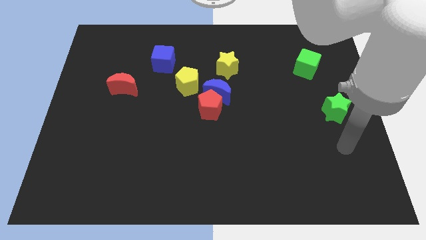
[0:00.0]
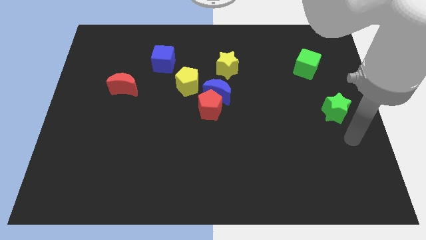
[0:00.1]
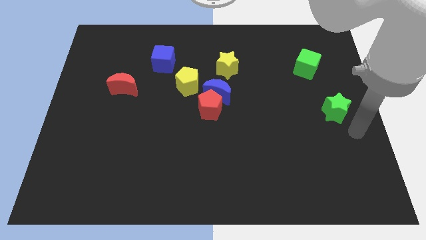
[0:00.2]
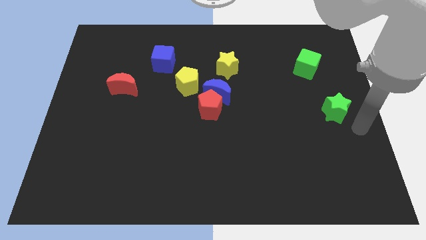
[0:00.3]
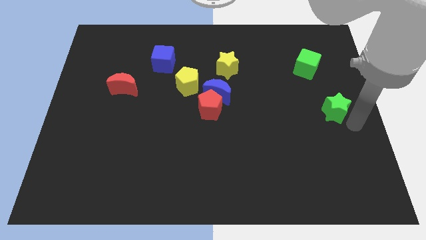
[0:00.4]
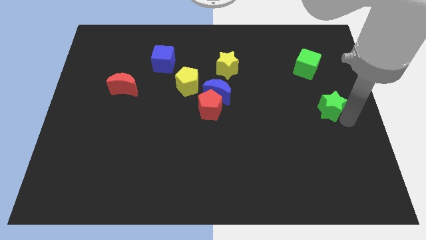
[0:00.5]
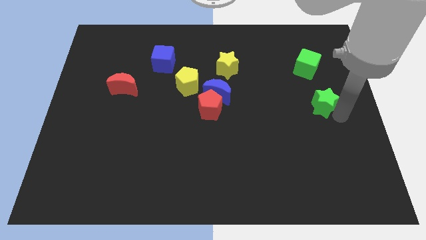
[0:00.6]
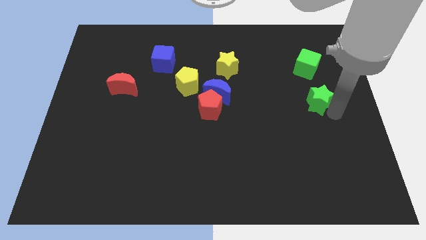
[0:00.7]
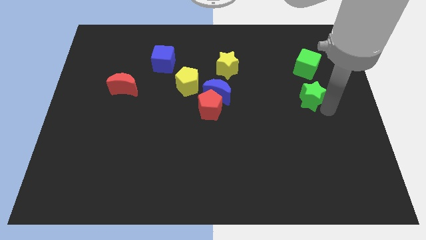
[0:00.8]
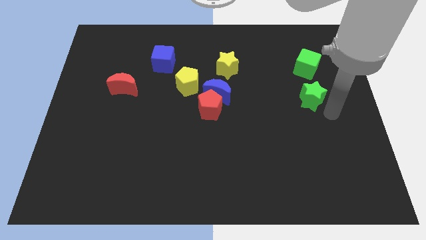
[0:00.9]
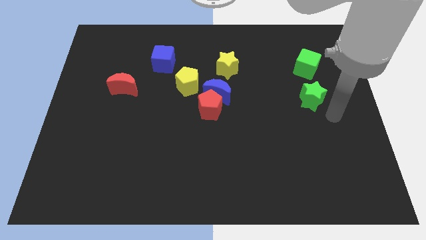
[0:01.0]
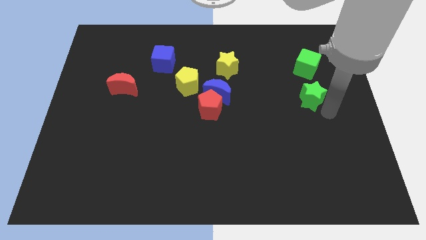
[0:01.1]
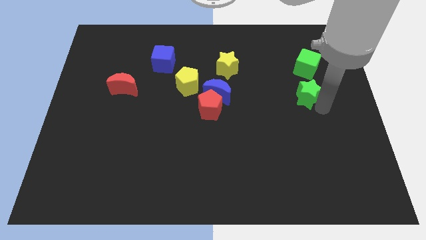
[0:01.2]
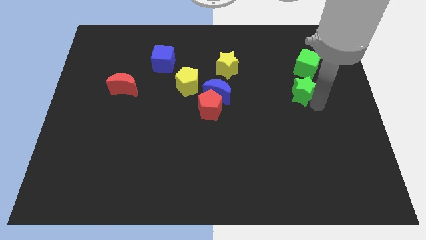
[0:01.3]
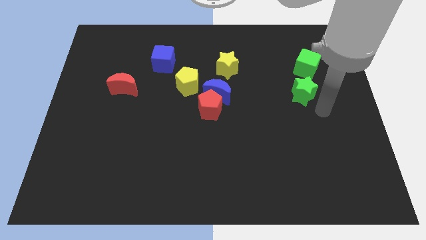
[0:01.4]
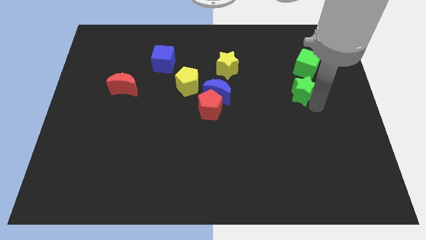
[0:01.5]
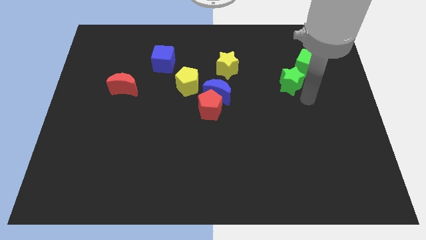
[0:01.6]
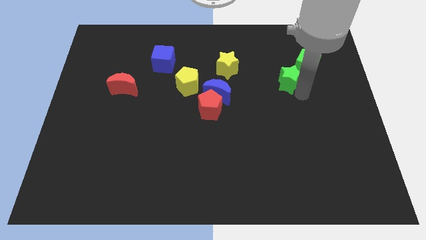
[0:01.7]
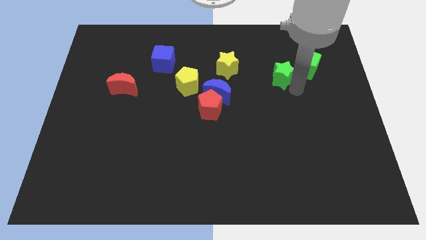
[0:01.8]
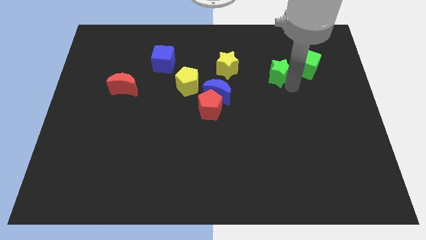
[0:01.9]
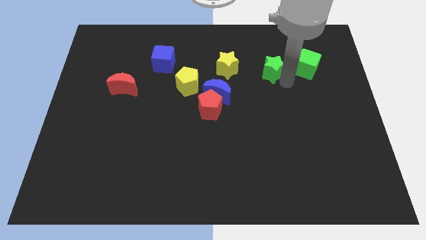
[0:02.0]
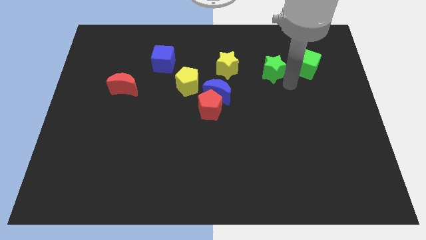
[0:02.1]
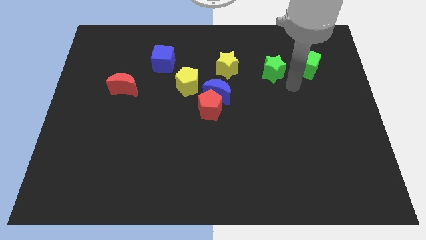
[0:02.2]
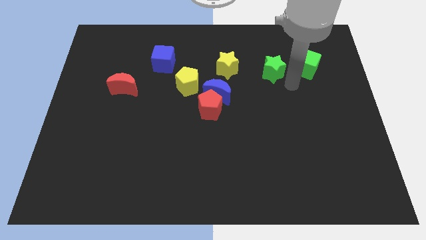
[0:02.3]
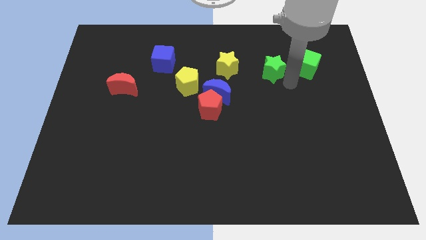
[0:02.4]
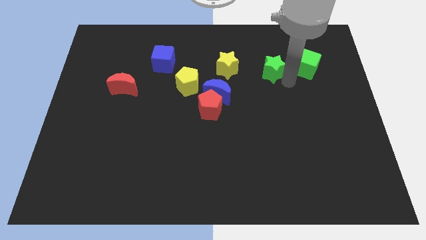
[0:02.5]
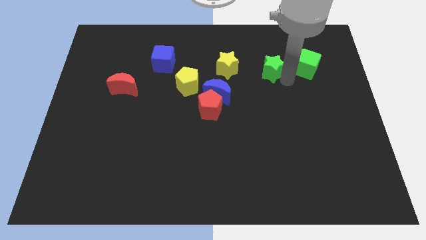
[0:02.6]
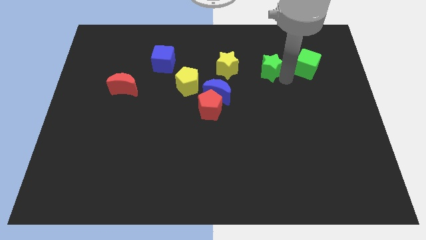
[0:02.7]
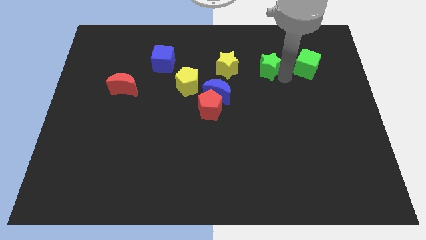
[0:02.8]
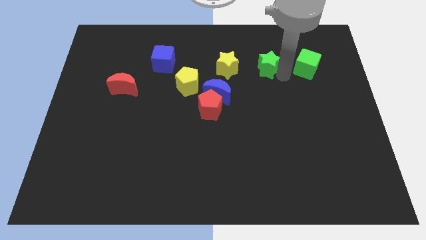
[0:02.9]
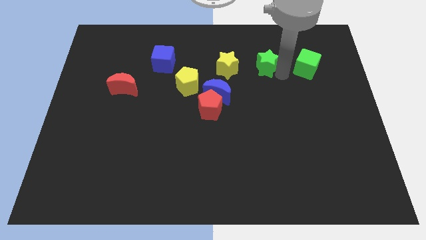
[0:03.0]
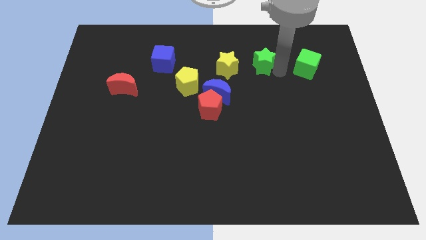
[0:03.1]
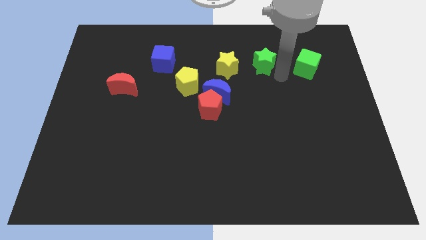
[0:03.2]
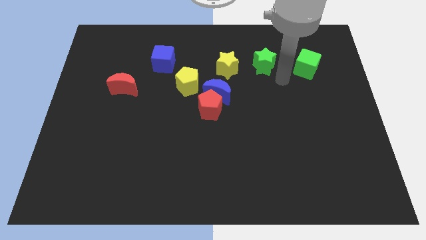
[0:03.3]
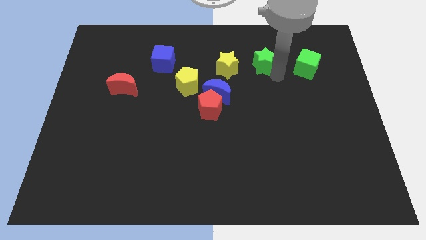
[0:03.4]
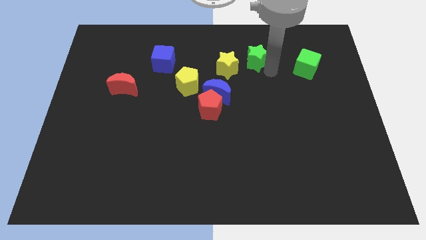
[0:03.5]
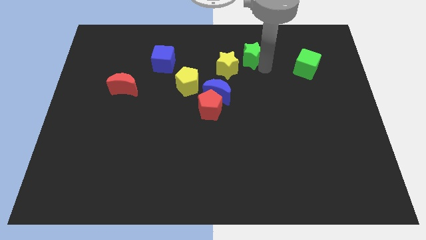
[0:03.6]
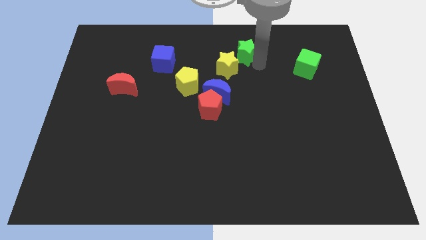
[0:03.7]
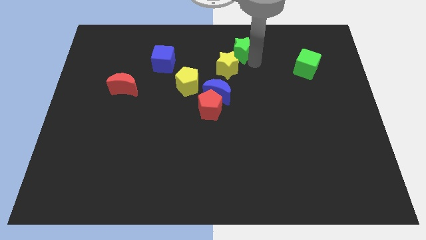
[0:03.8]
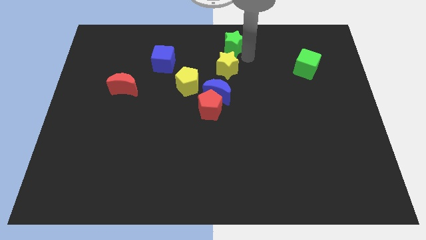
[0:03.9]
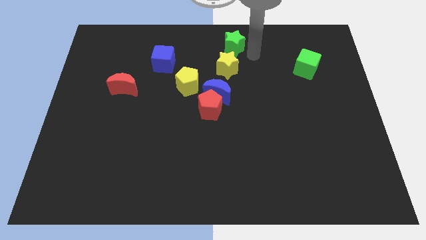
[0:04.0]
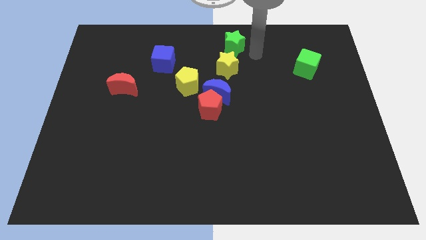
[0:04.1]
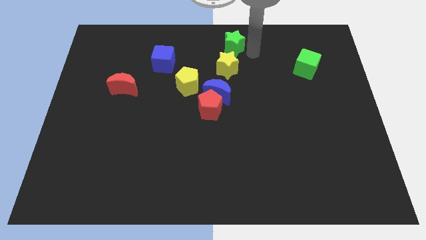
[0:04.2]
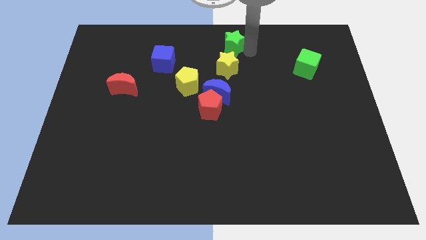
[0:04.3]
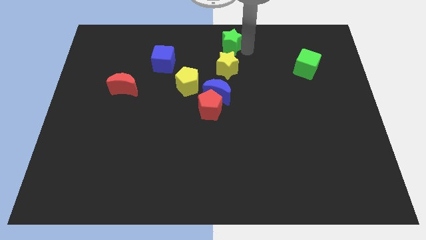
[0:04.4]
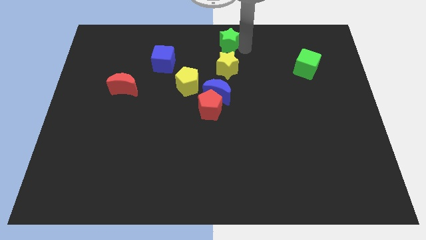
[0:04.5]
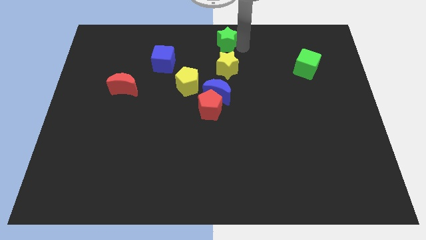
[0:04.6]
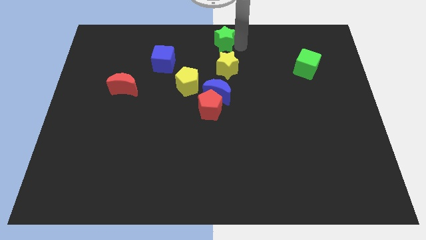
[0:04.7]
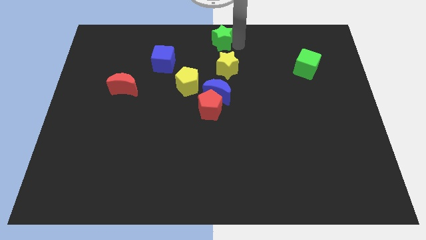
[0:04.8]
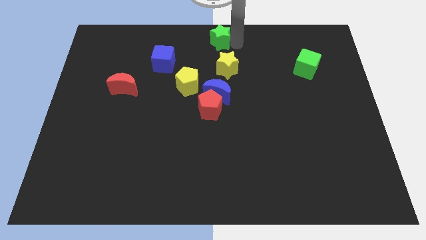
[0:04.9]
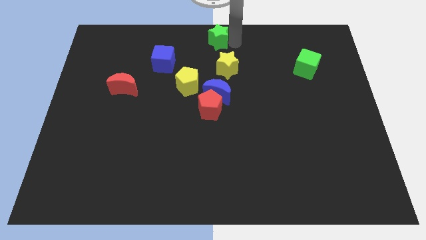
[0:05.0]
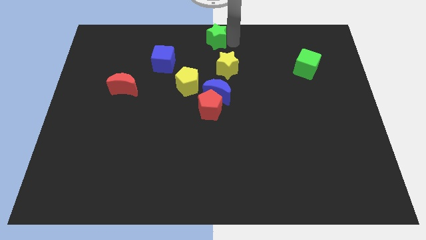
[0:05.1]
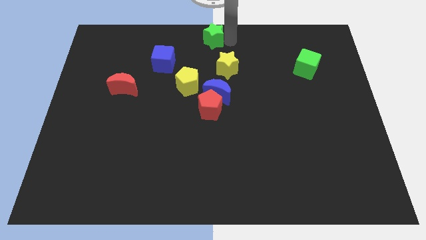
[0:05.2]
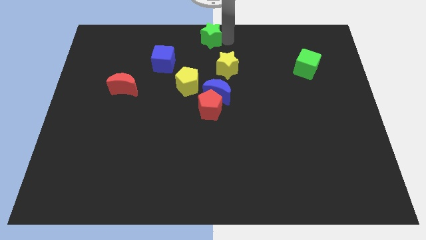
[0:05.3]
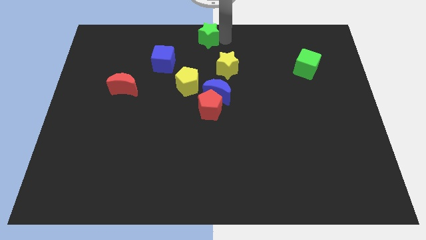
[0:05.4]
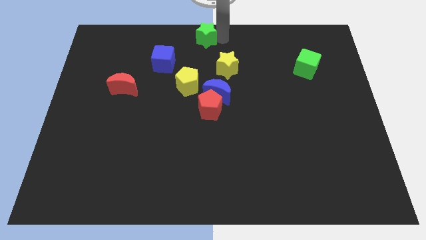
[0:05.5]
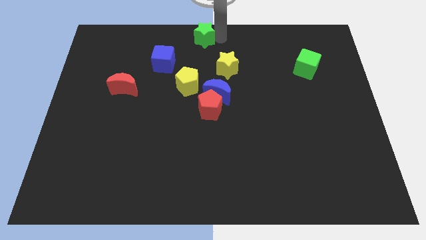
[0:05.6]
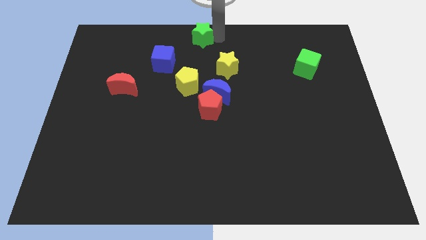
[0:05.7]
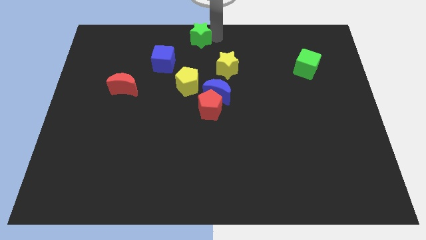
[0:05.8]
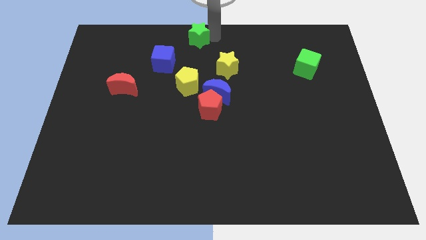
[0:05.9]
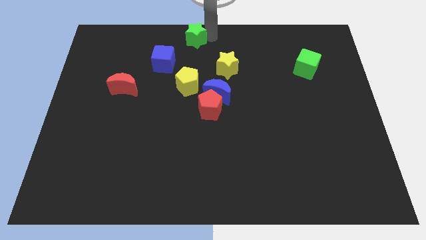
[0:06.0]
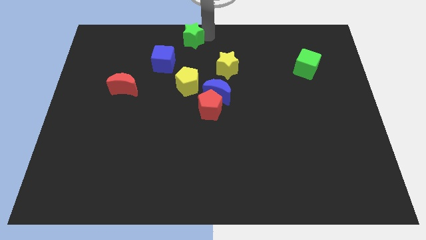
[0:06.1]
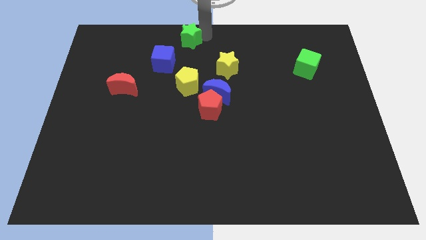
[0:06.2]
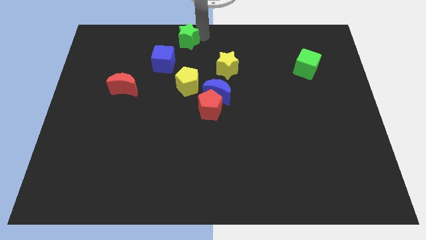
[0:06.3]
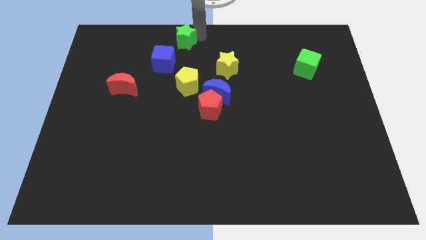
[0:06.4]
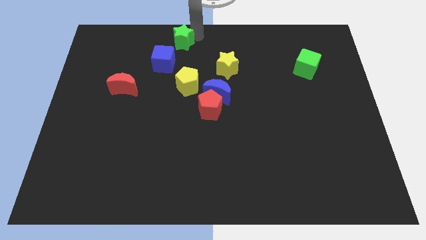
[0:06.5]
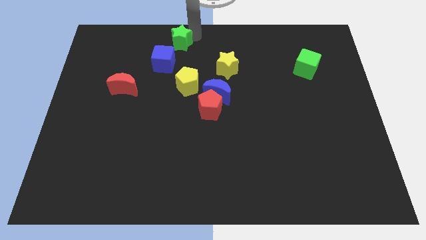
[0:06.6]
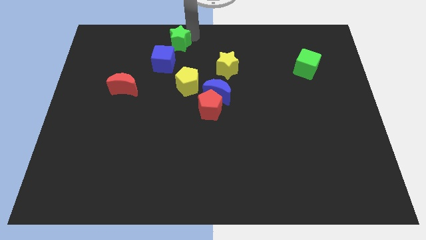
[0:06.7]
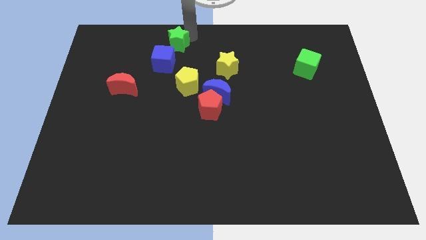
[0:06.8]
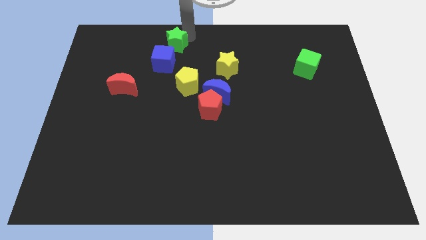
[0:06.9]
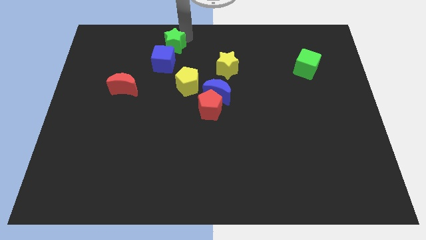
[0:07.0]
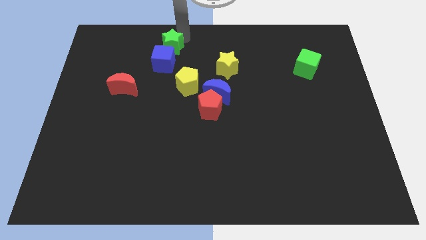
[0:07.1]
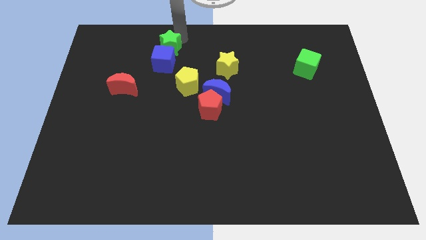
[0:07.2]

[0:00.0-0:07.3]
put the green star next to the blue cube

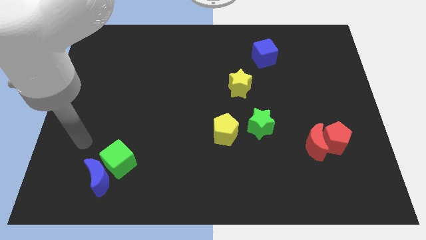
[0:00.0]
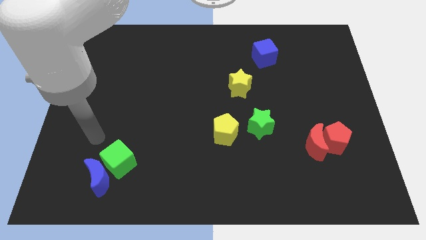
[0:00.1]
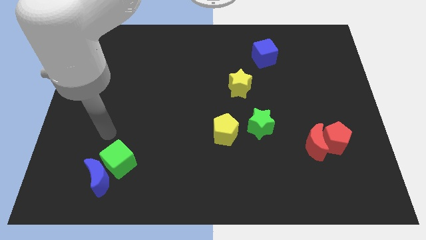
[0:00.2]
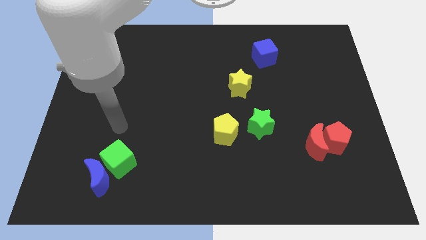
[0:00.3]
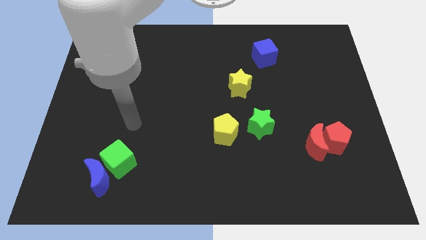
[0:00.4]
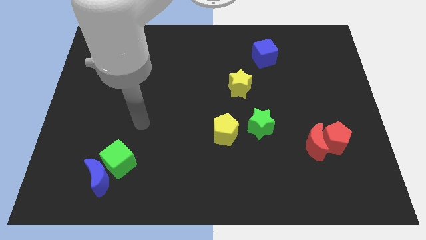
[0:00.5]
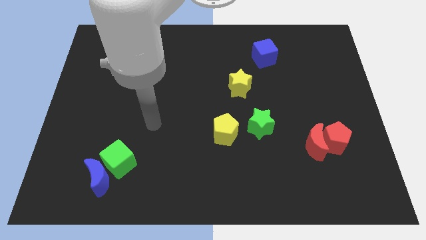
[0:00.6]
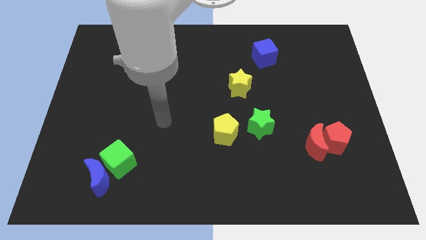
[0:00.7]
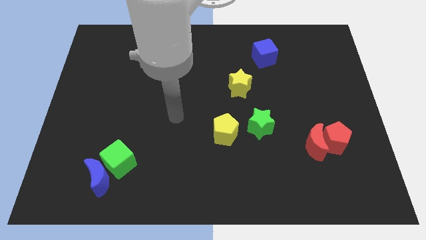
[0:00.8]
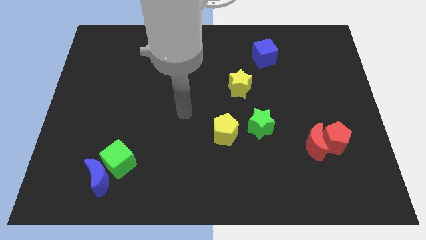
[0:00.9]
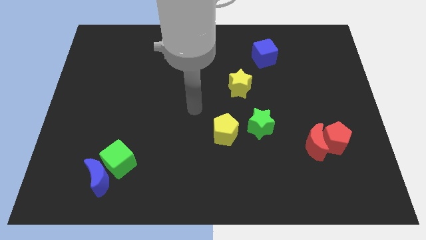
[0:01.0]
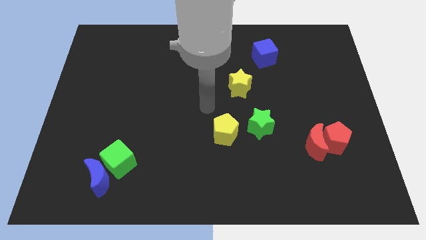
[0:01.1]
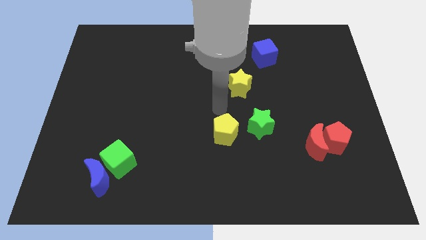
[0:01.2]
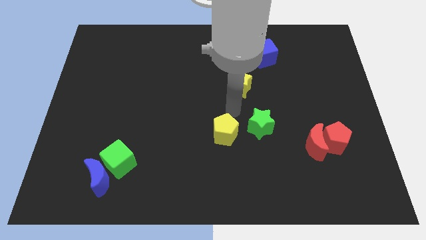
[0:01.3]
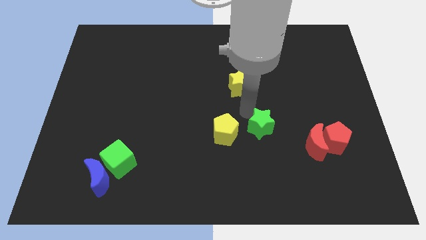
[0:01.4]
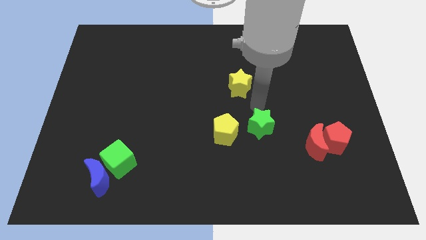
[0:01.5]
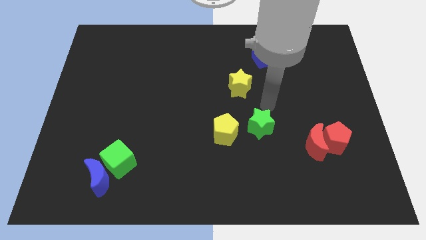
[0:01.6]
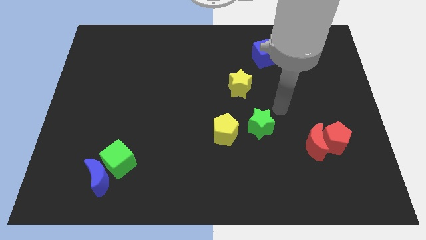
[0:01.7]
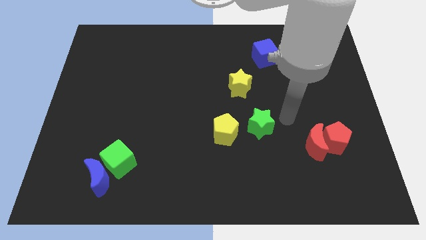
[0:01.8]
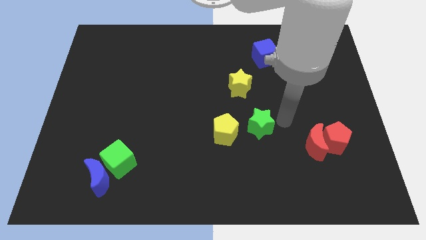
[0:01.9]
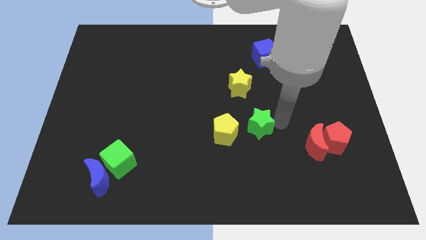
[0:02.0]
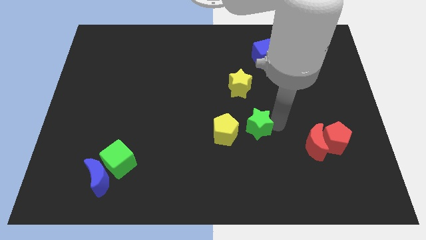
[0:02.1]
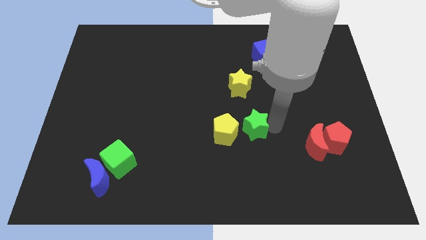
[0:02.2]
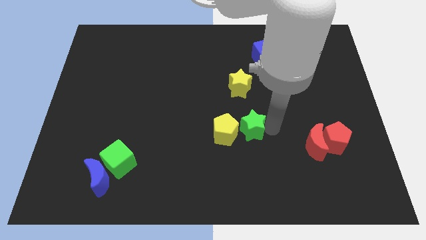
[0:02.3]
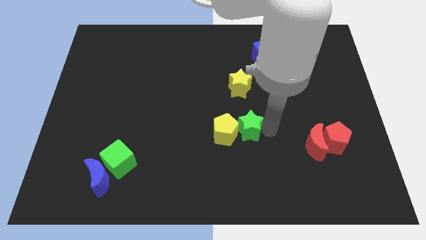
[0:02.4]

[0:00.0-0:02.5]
slide the green star close to the yellow pentagon
